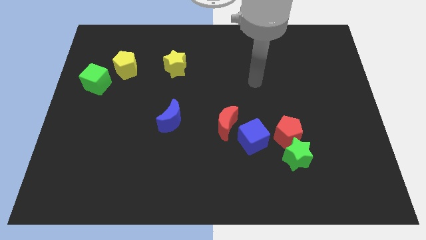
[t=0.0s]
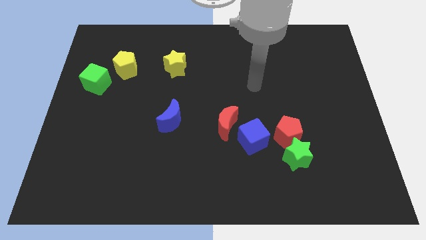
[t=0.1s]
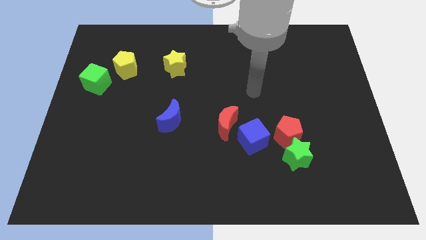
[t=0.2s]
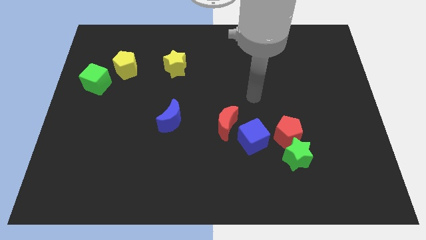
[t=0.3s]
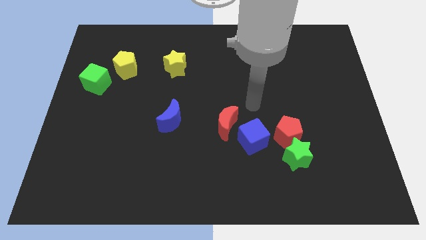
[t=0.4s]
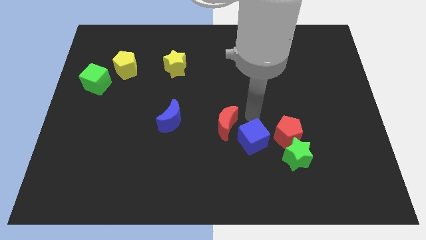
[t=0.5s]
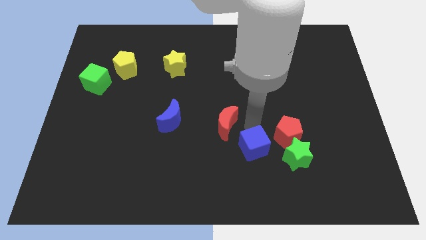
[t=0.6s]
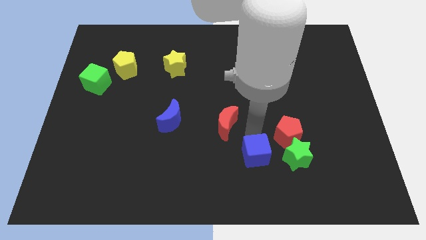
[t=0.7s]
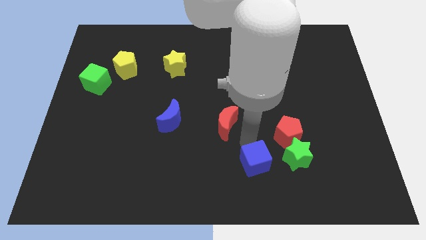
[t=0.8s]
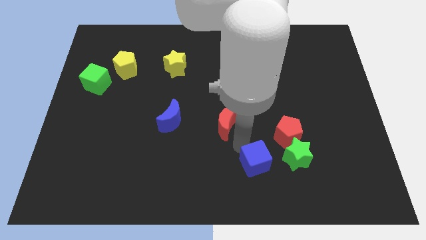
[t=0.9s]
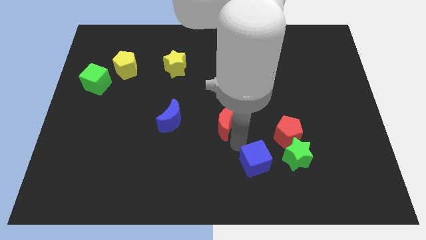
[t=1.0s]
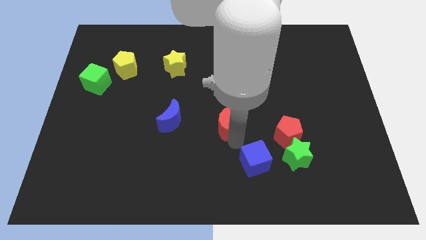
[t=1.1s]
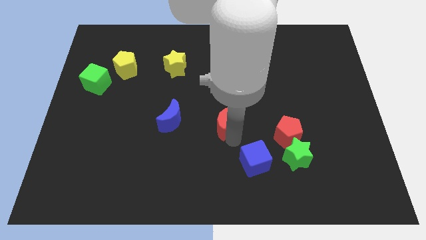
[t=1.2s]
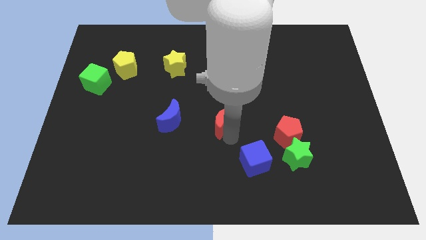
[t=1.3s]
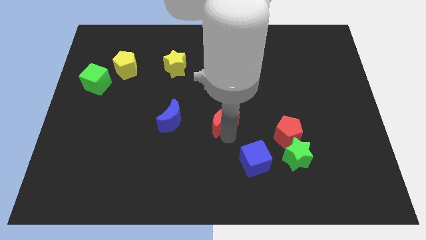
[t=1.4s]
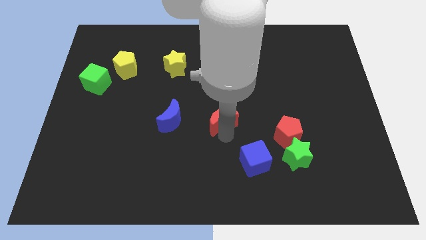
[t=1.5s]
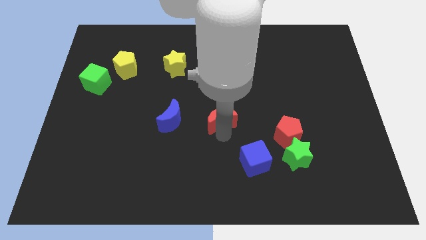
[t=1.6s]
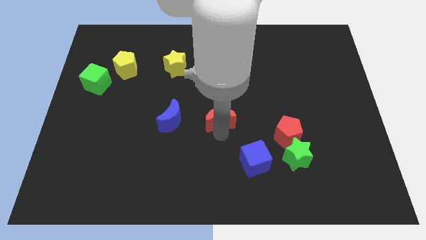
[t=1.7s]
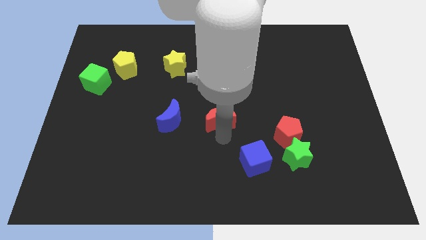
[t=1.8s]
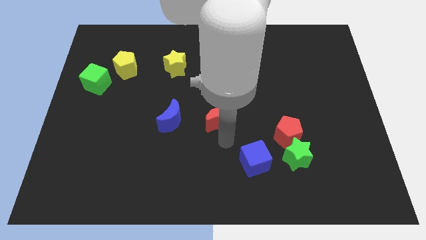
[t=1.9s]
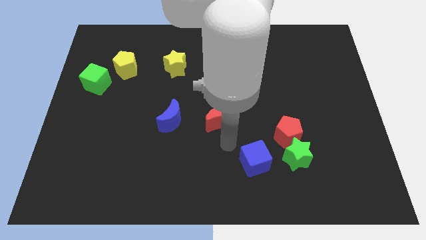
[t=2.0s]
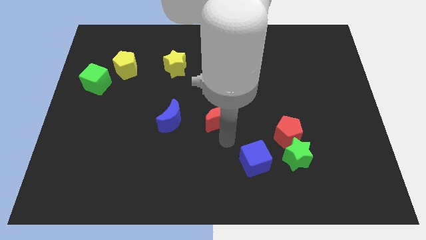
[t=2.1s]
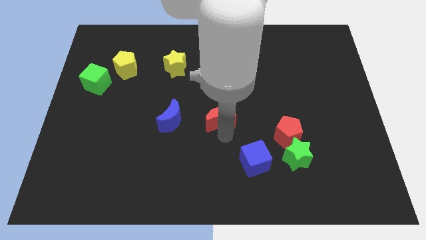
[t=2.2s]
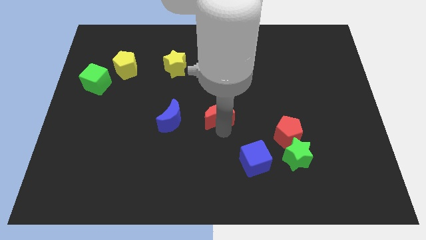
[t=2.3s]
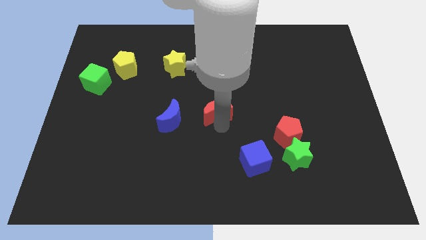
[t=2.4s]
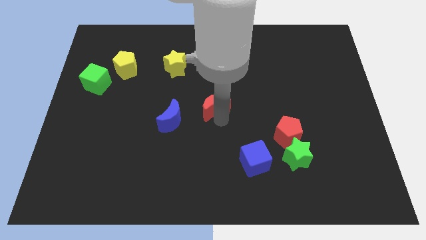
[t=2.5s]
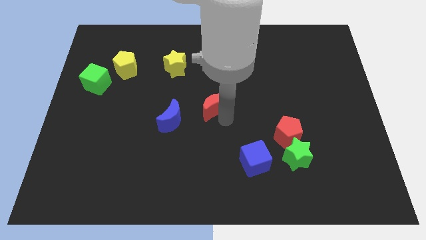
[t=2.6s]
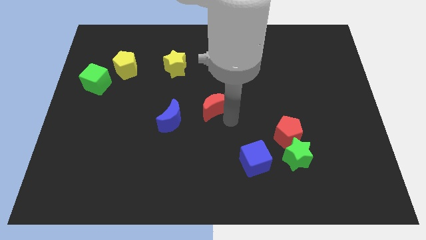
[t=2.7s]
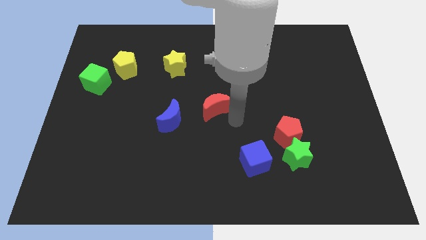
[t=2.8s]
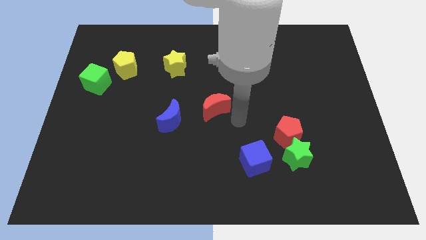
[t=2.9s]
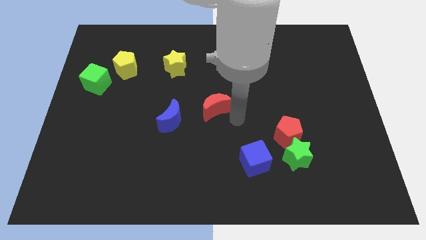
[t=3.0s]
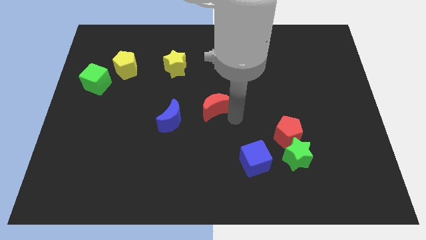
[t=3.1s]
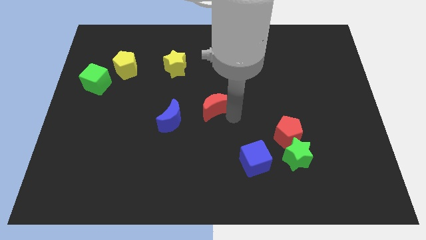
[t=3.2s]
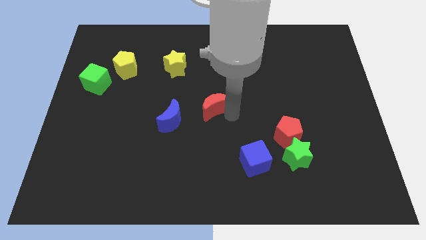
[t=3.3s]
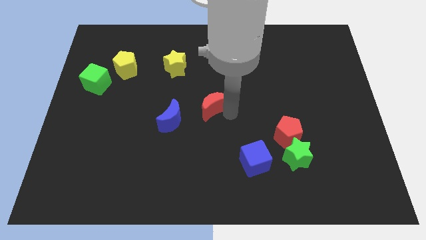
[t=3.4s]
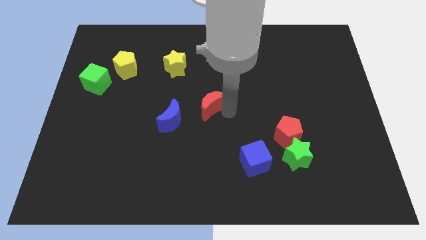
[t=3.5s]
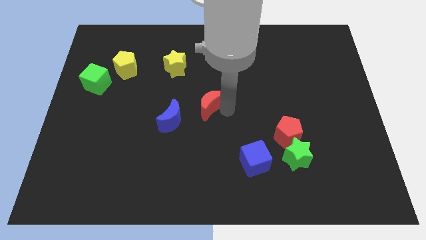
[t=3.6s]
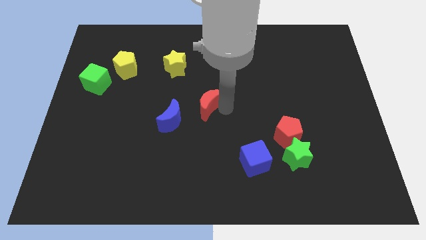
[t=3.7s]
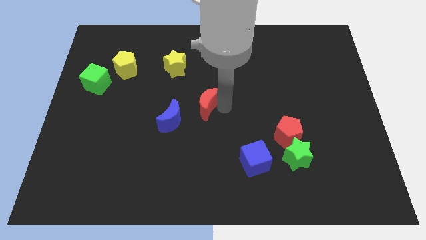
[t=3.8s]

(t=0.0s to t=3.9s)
slide the red moon slightly up and then to the left

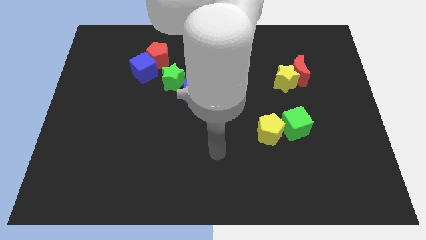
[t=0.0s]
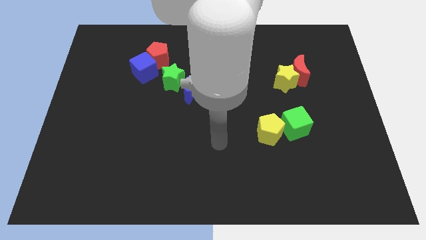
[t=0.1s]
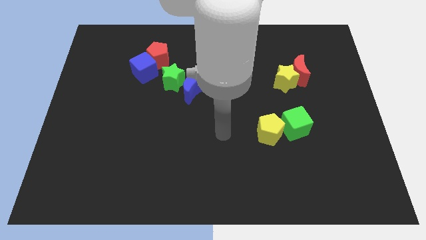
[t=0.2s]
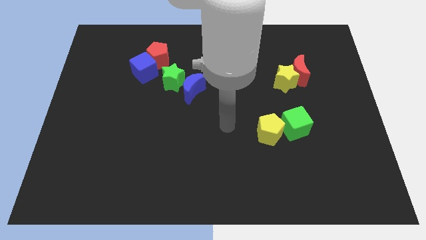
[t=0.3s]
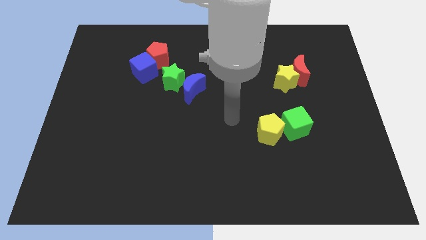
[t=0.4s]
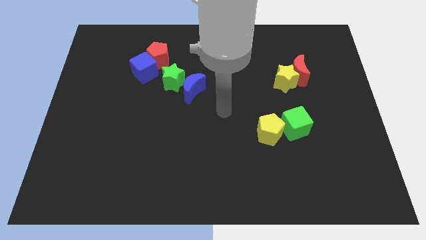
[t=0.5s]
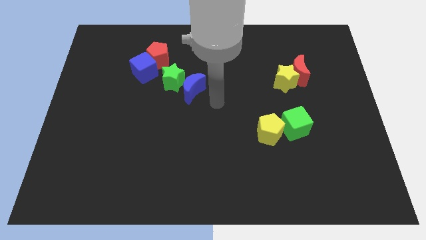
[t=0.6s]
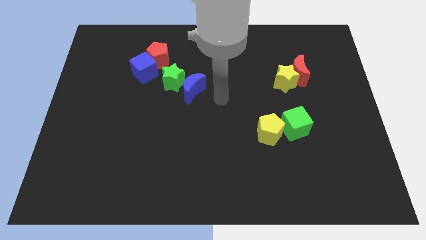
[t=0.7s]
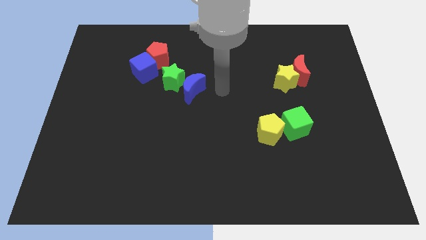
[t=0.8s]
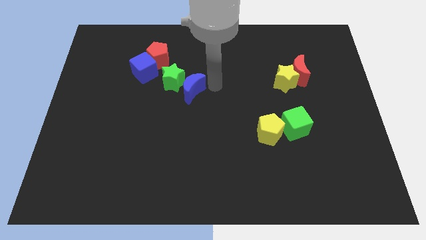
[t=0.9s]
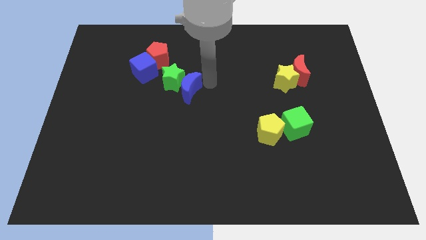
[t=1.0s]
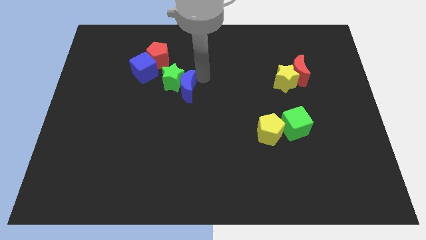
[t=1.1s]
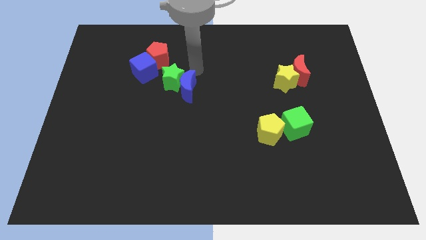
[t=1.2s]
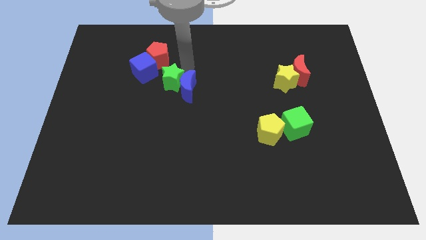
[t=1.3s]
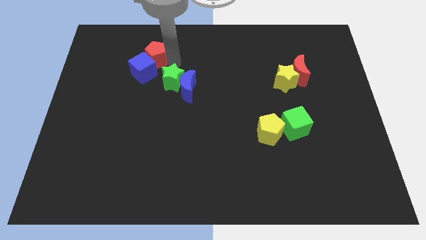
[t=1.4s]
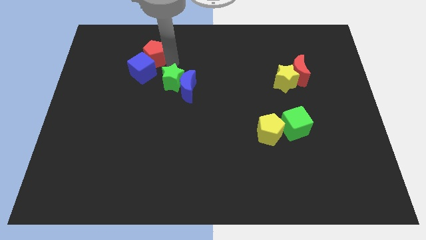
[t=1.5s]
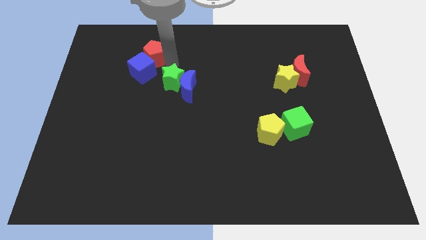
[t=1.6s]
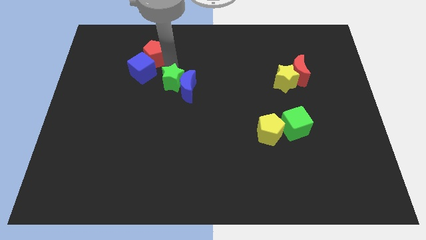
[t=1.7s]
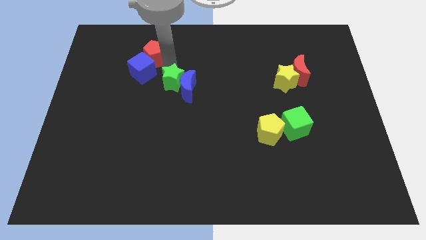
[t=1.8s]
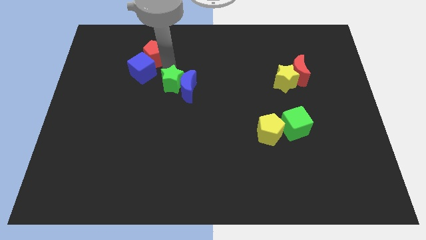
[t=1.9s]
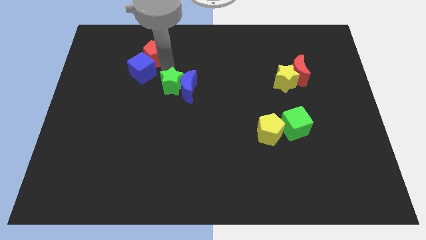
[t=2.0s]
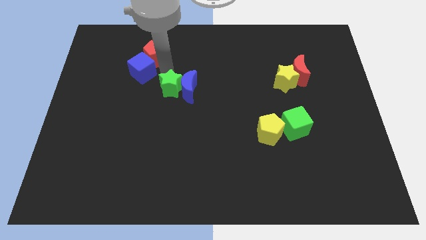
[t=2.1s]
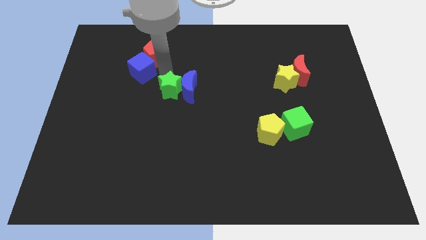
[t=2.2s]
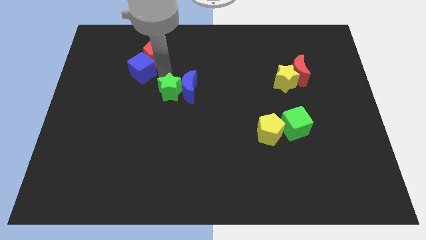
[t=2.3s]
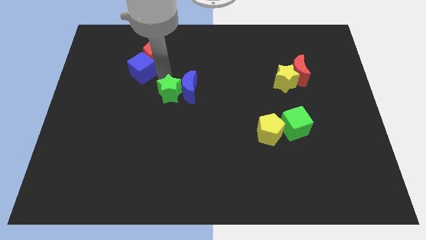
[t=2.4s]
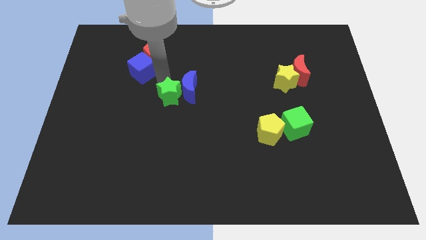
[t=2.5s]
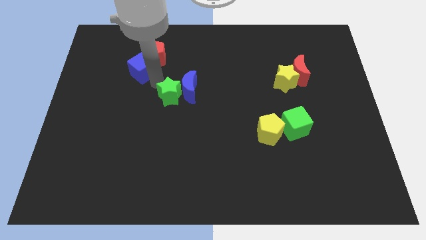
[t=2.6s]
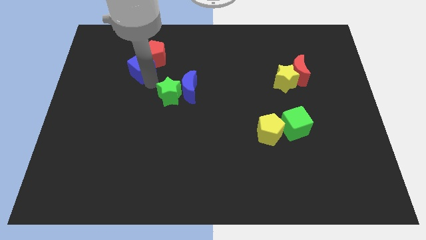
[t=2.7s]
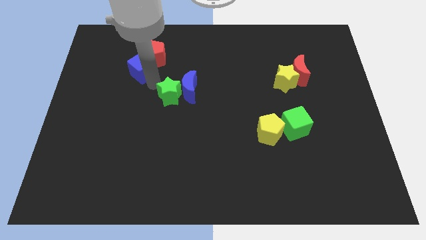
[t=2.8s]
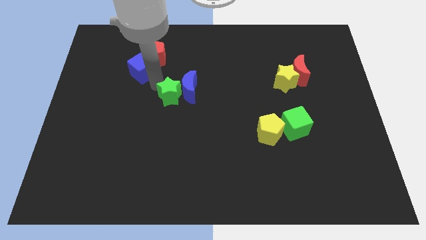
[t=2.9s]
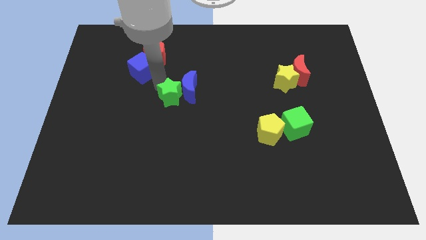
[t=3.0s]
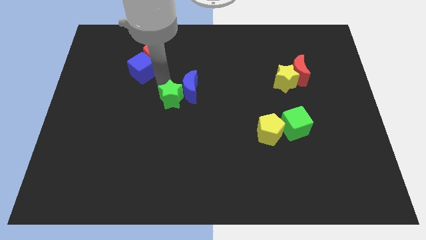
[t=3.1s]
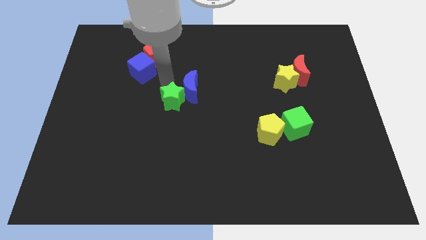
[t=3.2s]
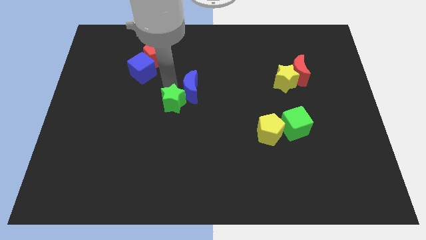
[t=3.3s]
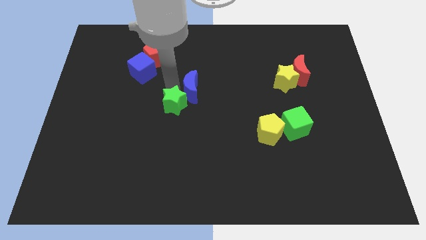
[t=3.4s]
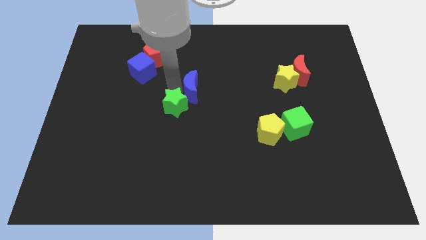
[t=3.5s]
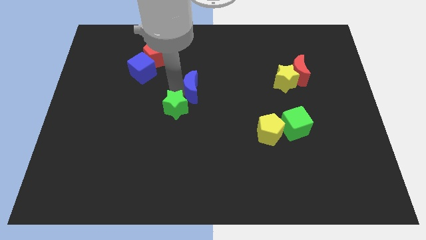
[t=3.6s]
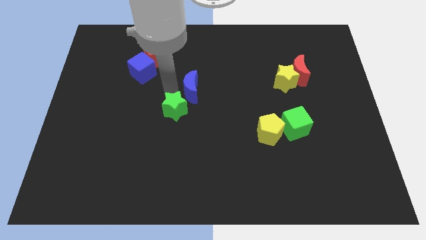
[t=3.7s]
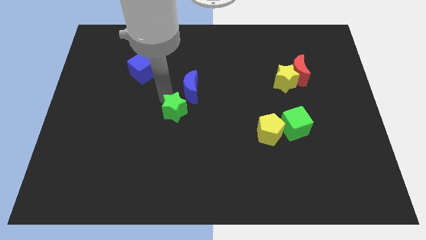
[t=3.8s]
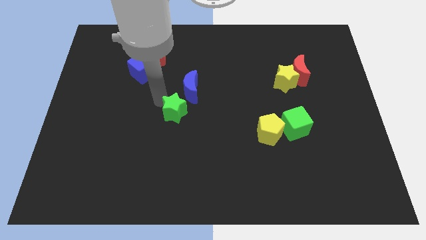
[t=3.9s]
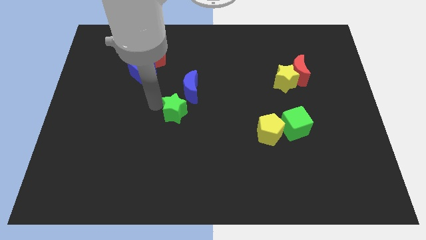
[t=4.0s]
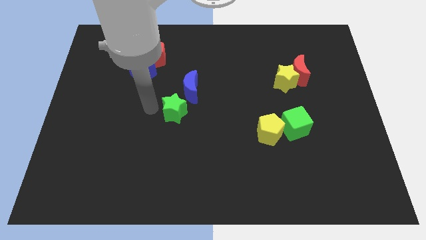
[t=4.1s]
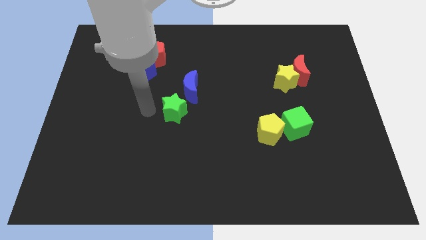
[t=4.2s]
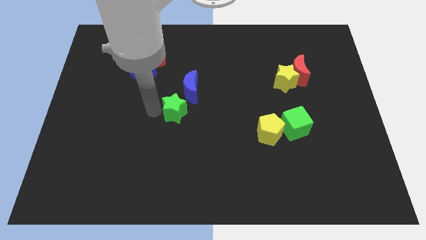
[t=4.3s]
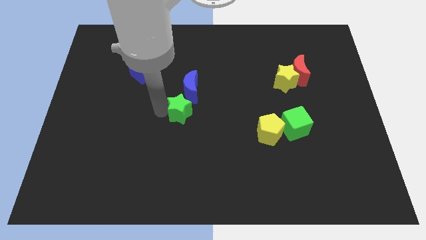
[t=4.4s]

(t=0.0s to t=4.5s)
move the green star down and to the right diagonally a bit
